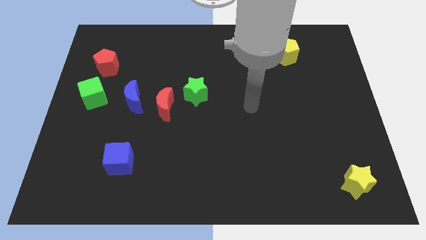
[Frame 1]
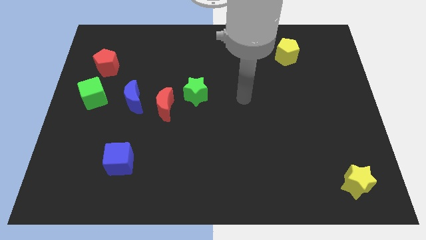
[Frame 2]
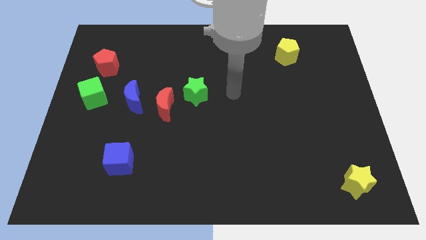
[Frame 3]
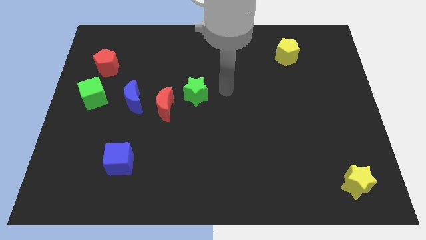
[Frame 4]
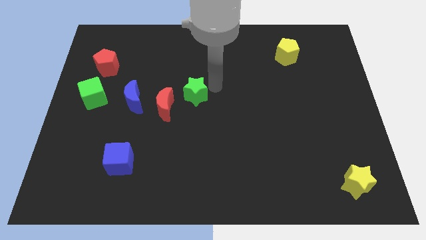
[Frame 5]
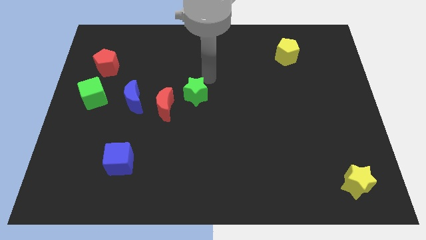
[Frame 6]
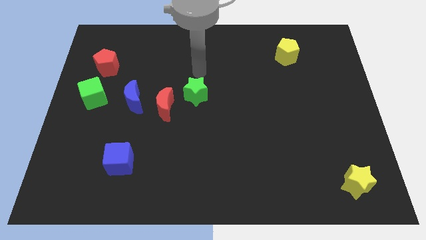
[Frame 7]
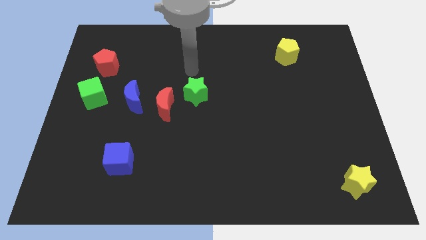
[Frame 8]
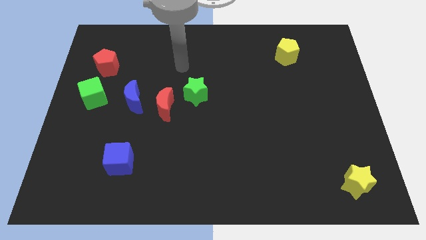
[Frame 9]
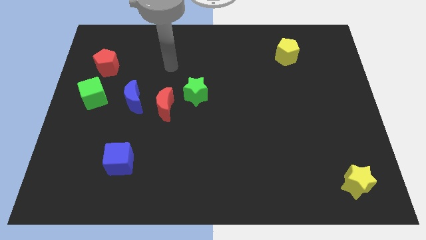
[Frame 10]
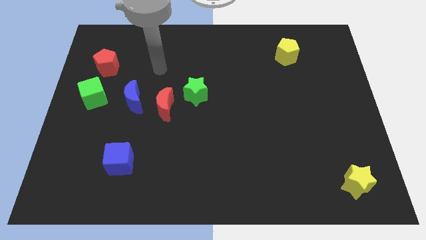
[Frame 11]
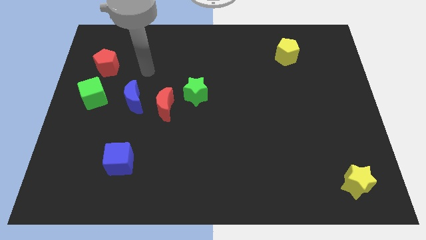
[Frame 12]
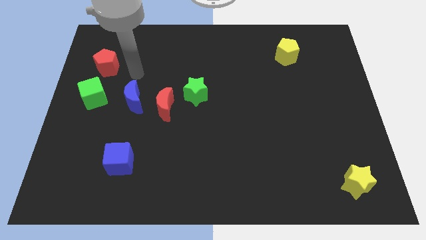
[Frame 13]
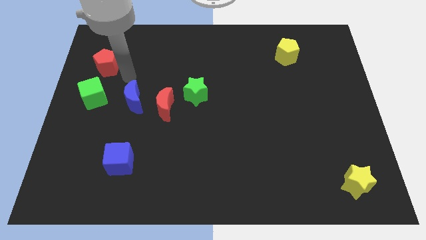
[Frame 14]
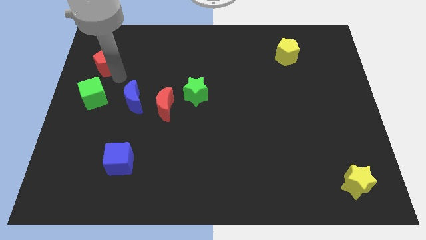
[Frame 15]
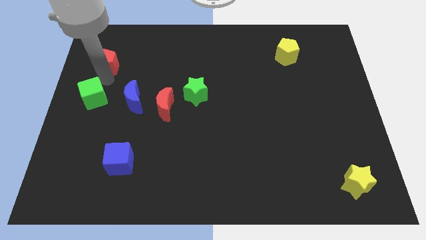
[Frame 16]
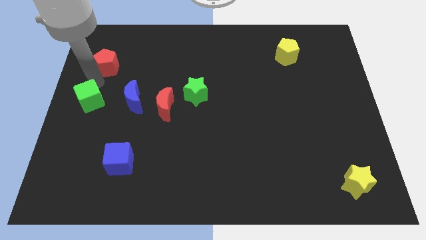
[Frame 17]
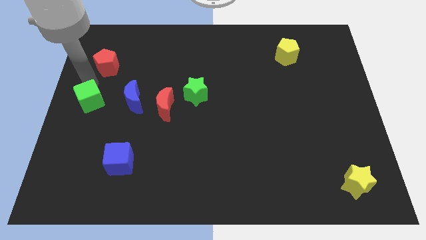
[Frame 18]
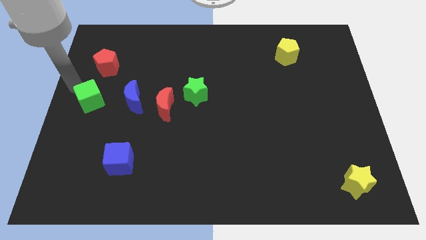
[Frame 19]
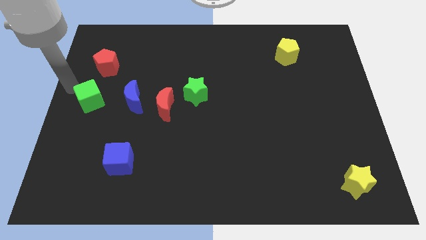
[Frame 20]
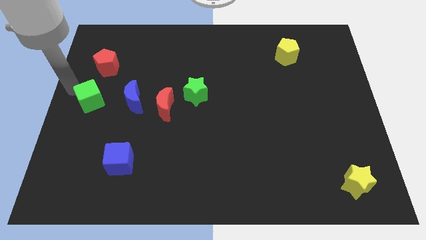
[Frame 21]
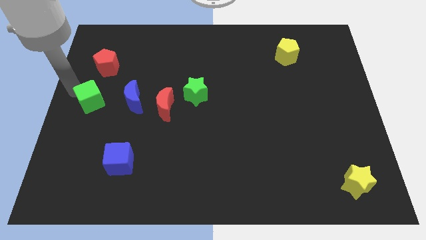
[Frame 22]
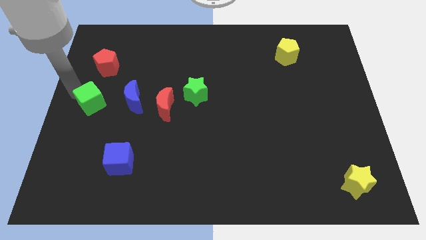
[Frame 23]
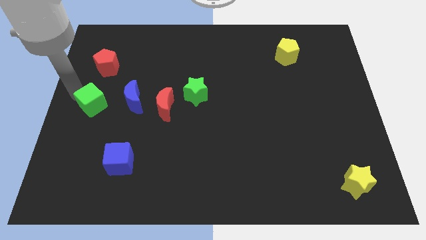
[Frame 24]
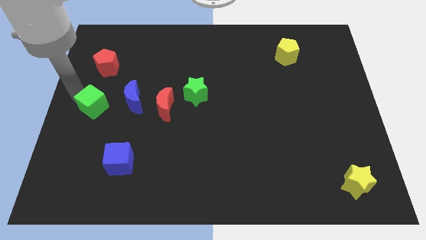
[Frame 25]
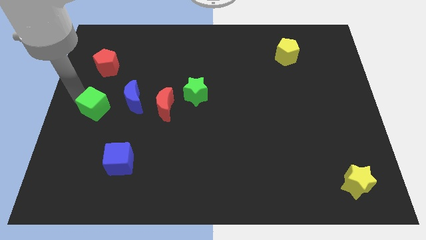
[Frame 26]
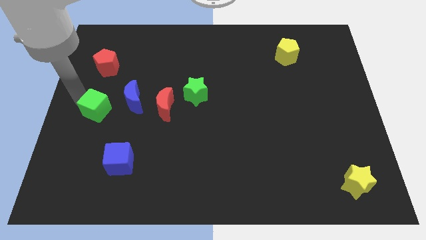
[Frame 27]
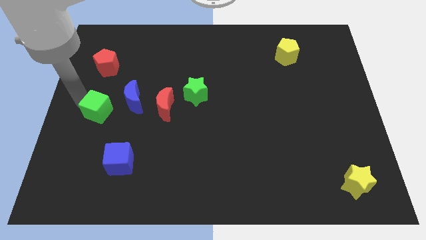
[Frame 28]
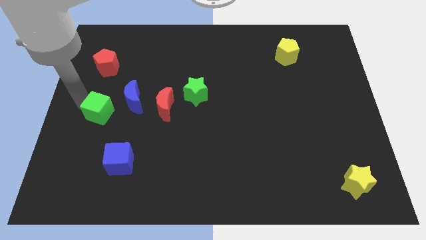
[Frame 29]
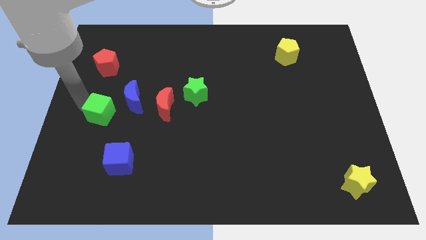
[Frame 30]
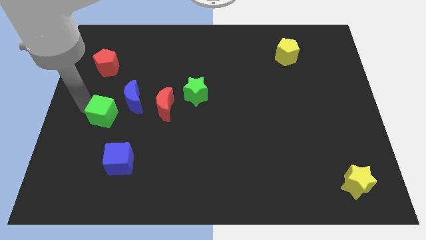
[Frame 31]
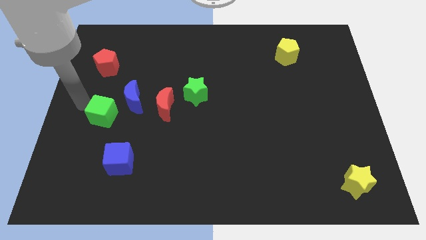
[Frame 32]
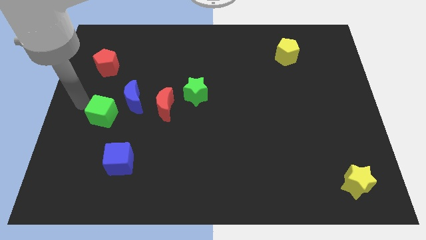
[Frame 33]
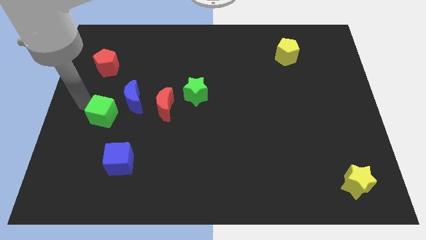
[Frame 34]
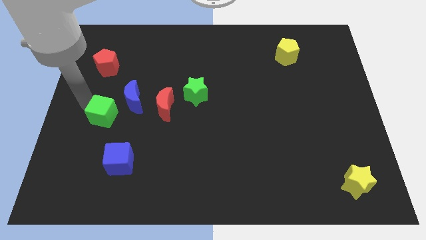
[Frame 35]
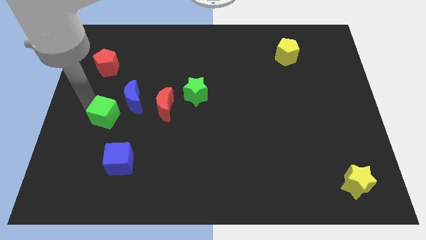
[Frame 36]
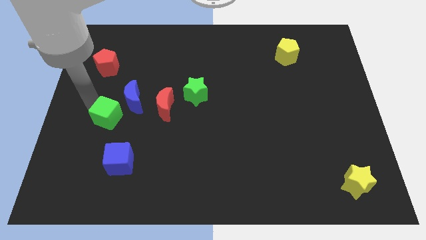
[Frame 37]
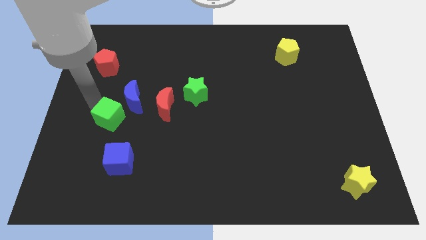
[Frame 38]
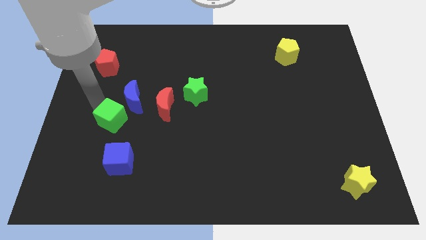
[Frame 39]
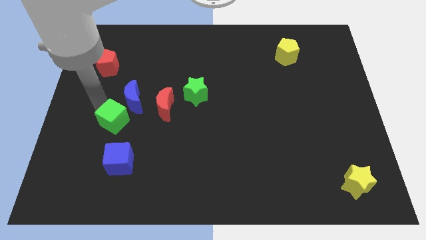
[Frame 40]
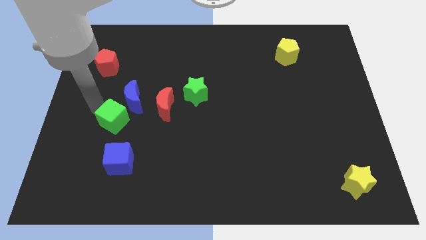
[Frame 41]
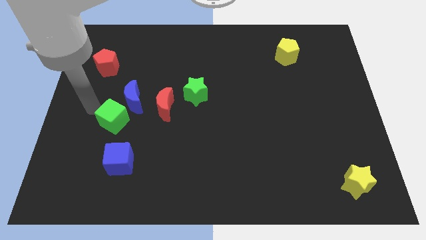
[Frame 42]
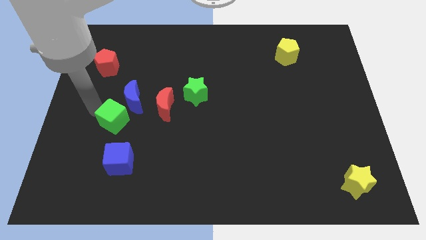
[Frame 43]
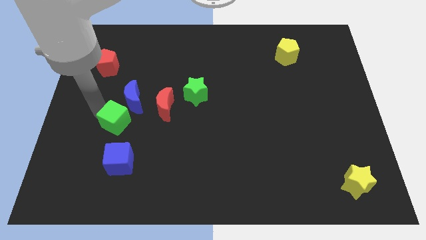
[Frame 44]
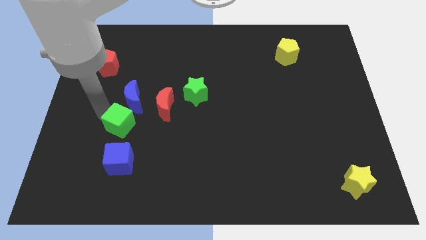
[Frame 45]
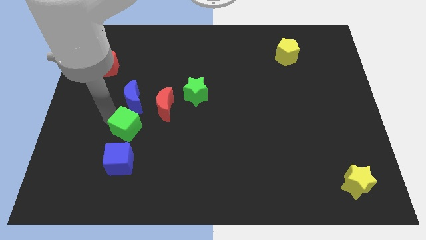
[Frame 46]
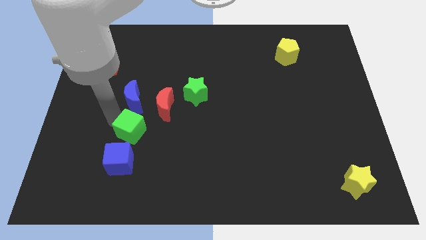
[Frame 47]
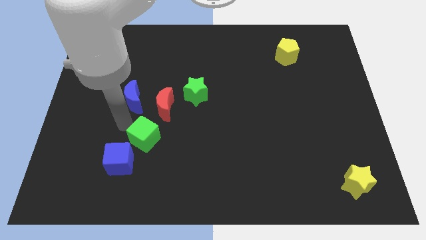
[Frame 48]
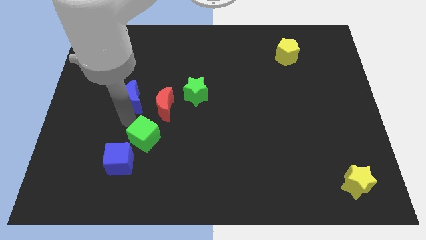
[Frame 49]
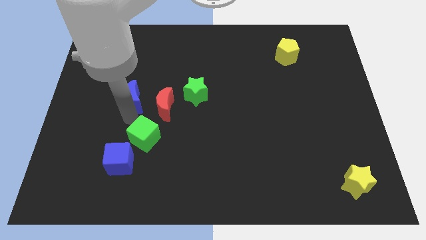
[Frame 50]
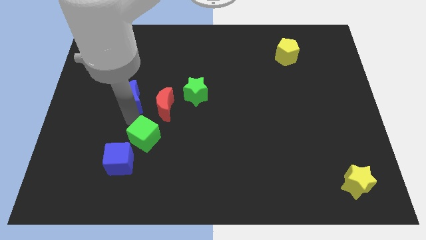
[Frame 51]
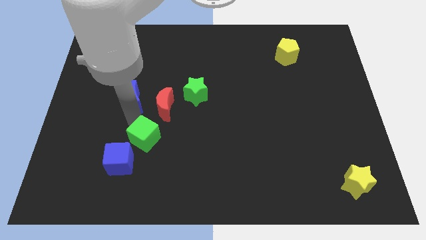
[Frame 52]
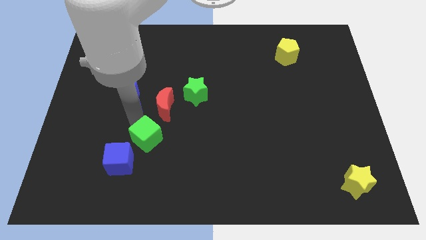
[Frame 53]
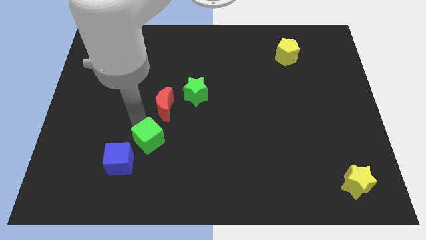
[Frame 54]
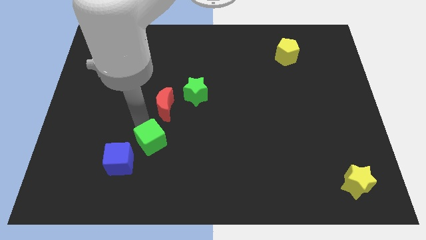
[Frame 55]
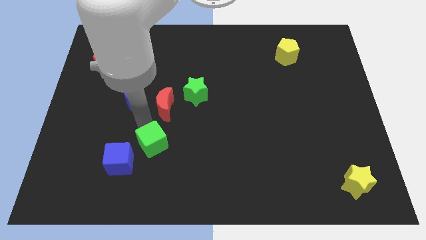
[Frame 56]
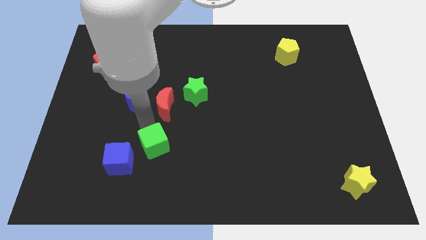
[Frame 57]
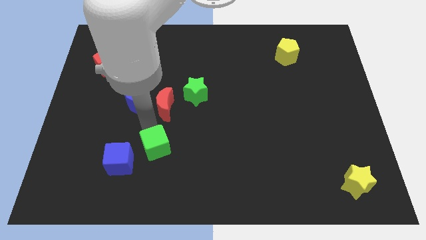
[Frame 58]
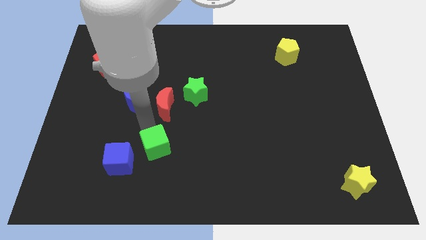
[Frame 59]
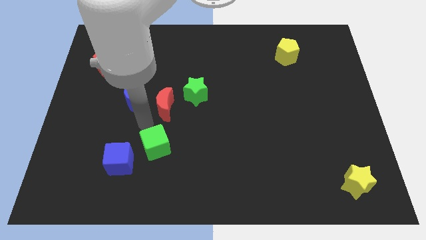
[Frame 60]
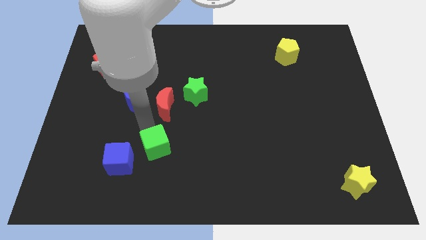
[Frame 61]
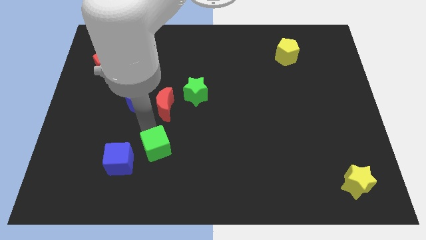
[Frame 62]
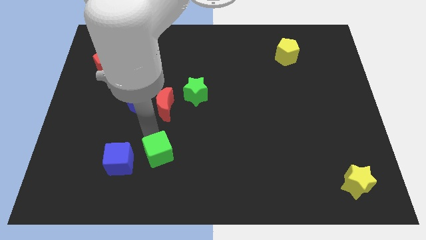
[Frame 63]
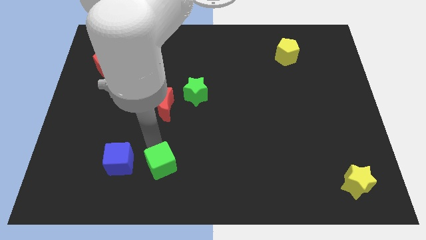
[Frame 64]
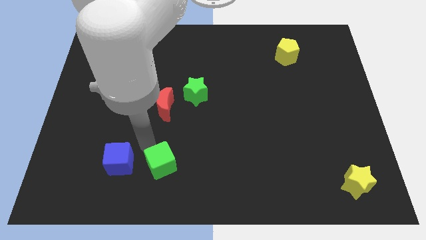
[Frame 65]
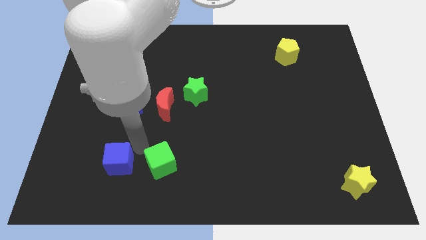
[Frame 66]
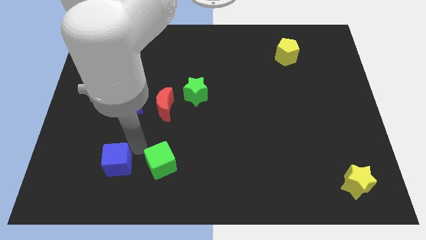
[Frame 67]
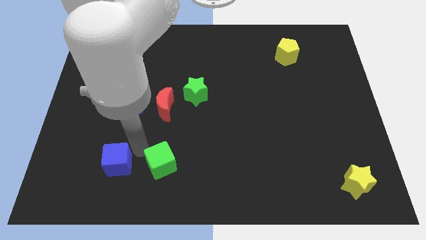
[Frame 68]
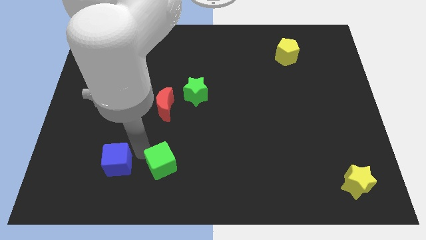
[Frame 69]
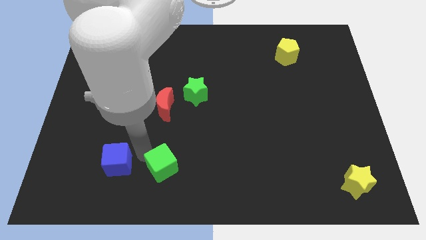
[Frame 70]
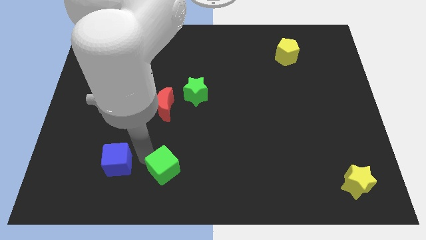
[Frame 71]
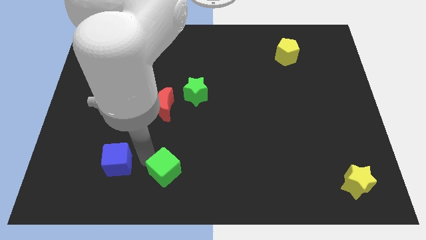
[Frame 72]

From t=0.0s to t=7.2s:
put the green cube to the bottom
